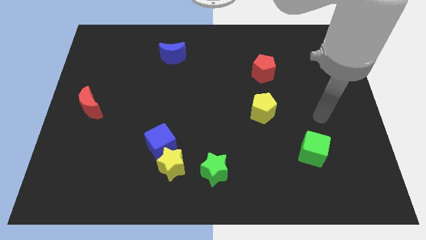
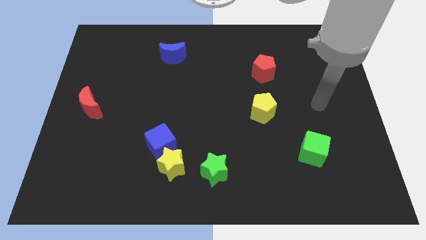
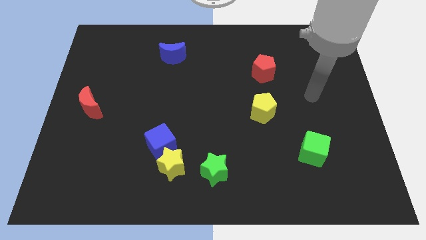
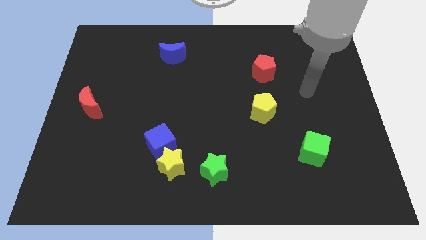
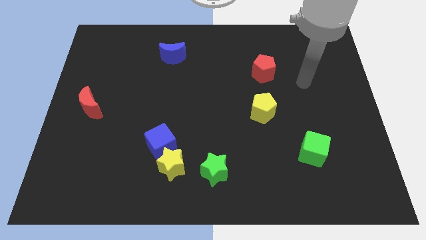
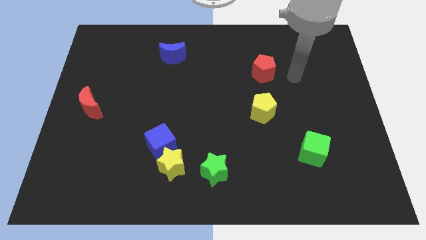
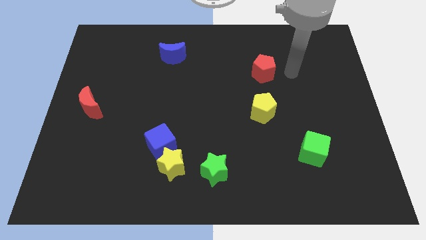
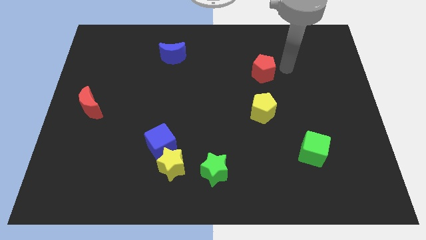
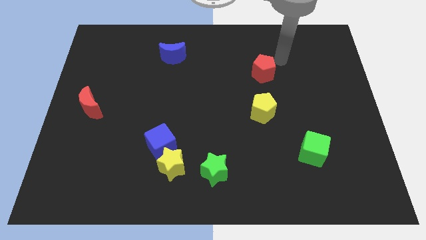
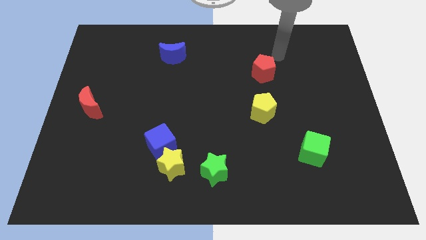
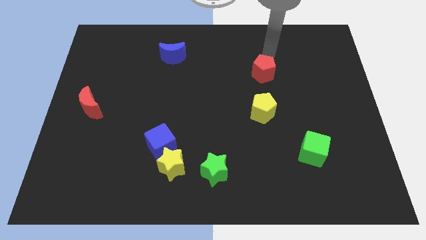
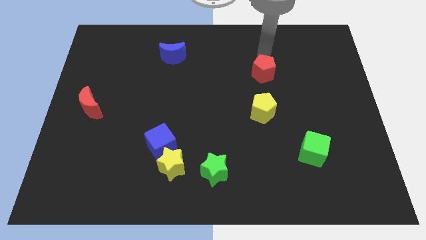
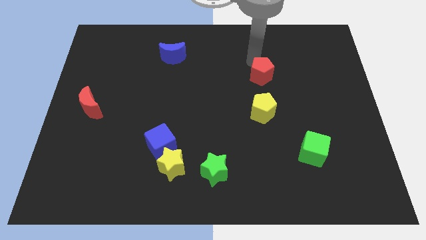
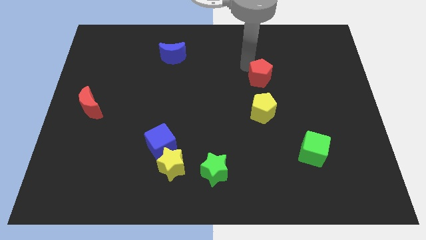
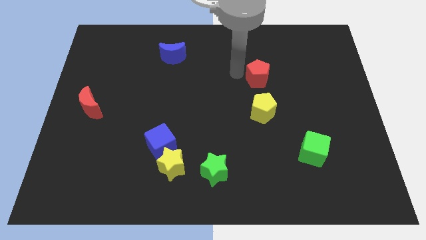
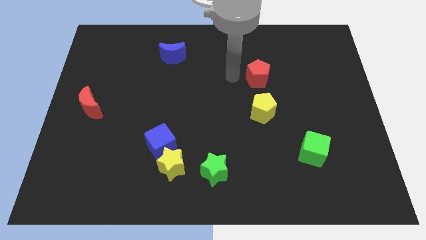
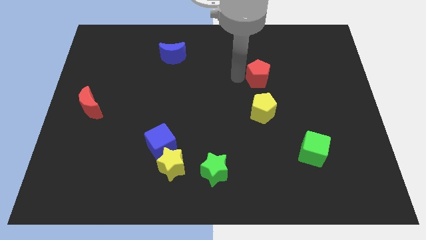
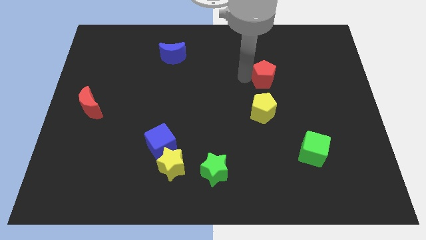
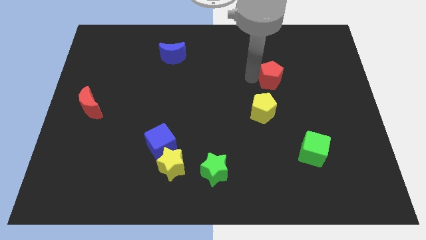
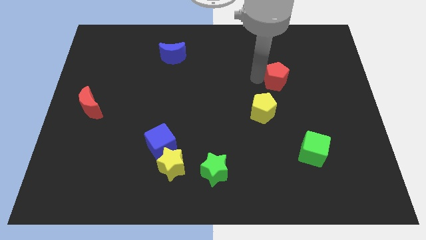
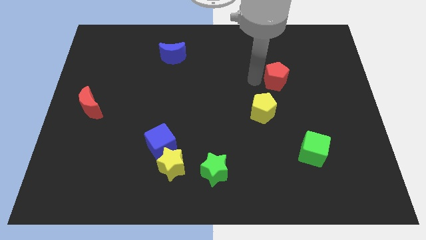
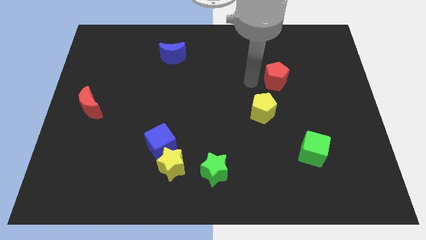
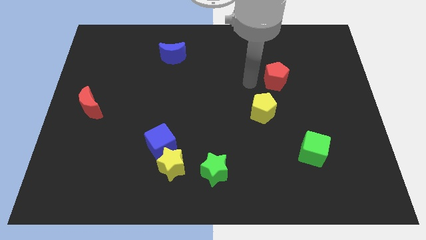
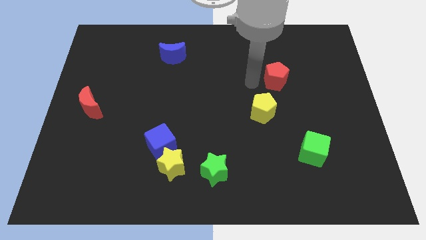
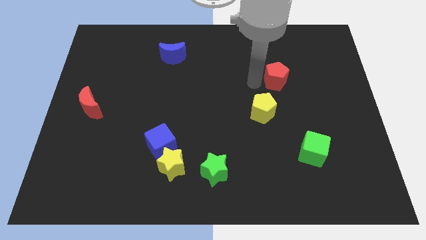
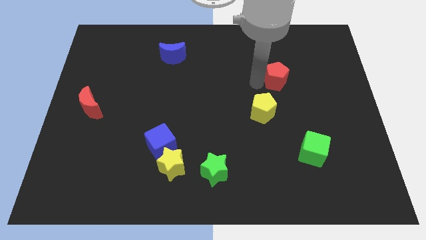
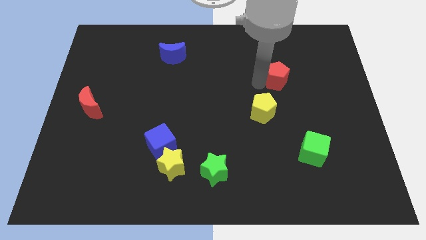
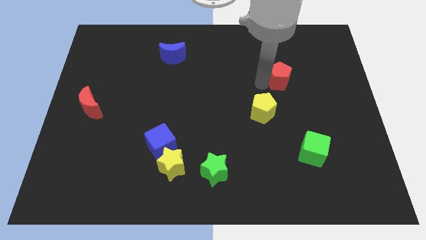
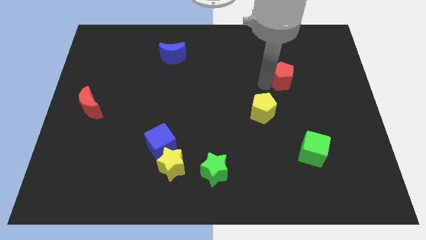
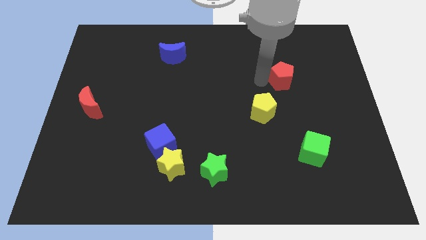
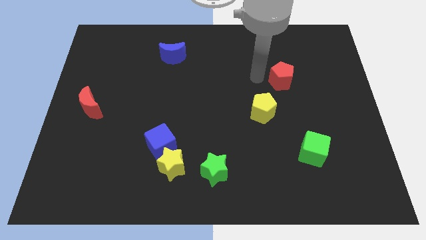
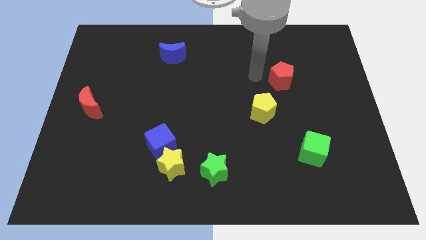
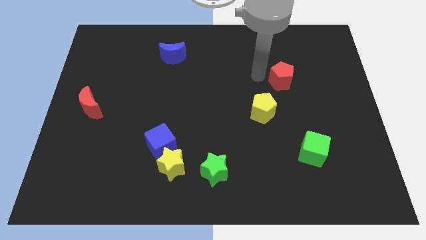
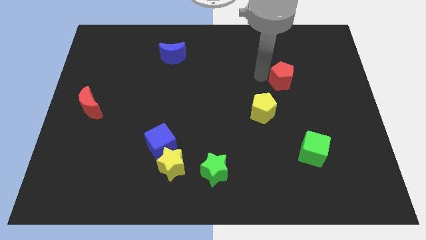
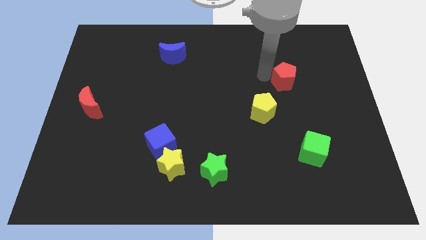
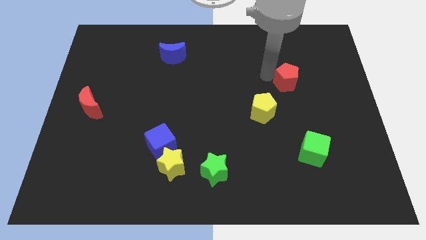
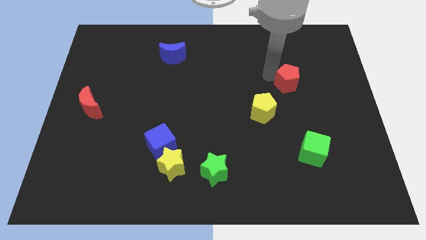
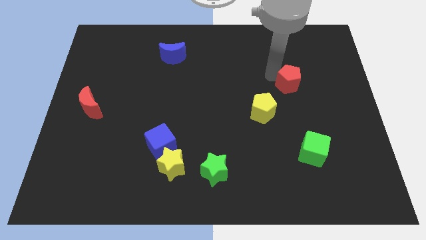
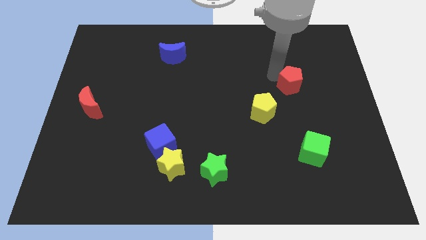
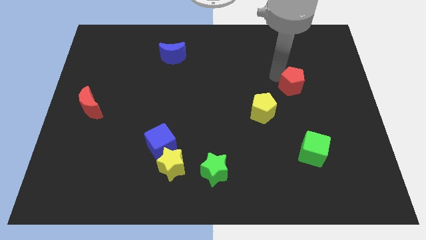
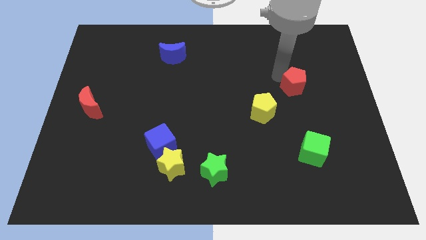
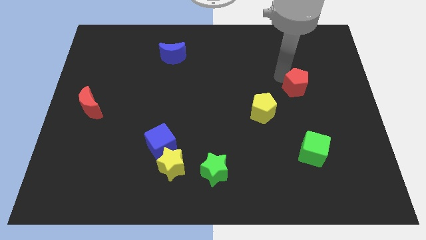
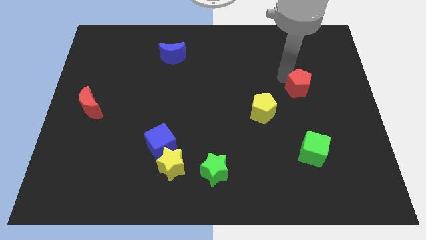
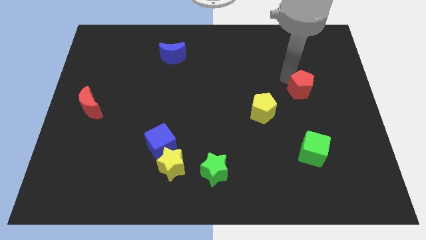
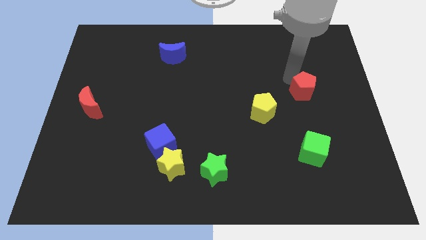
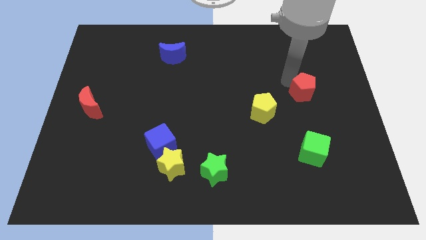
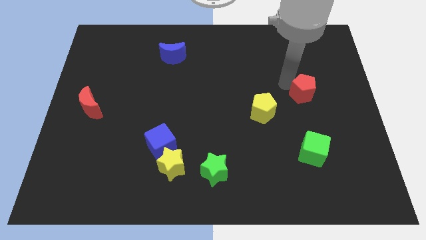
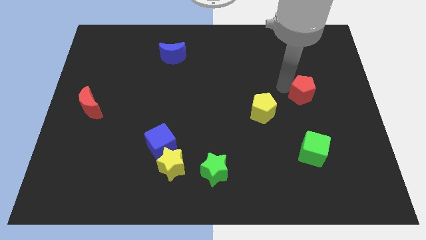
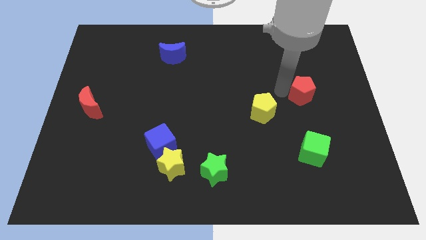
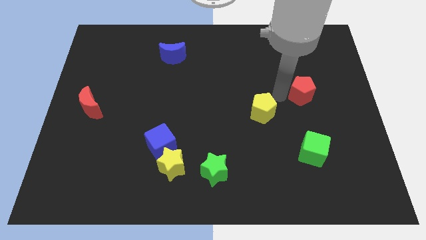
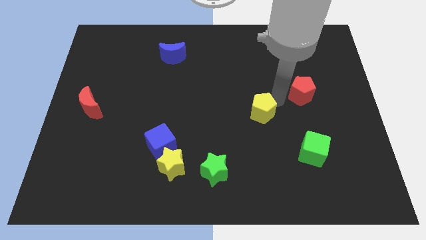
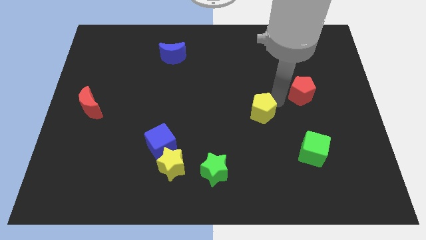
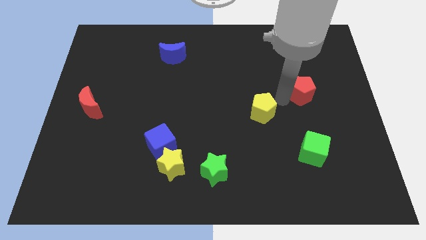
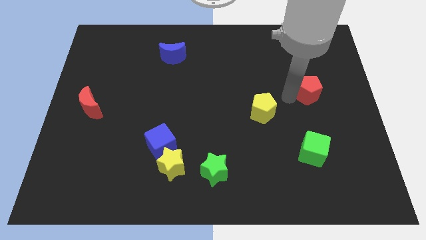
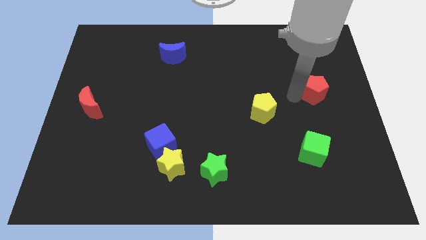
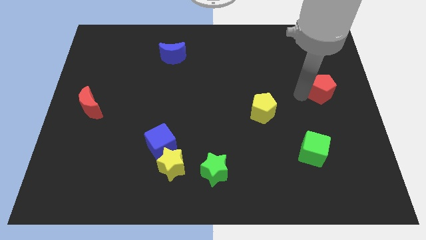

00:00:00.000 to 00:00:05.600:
move the red pentagon to the center right
